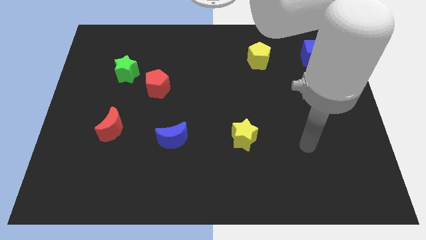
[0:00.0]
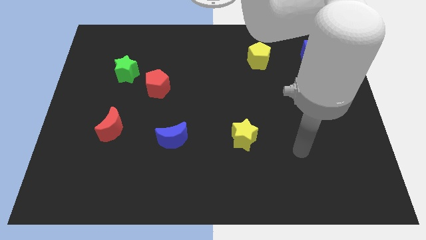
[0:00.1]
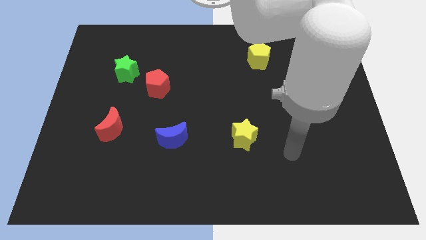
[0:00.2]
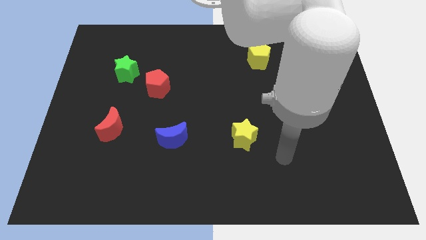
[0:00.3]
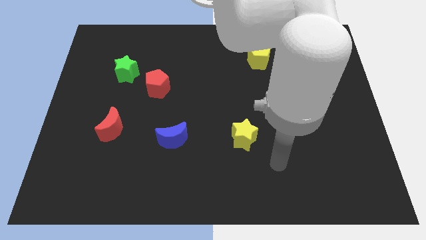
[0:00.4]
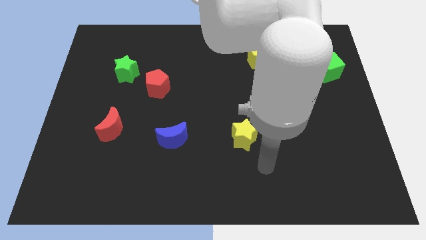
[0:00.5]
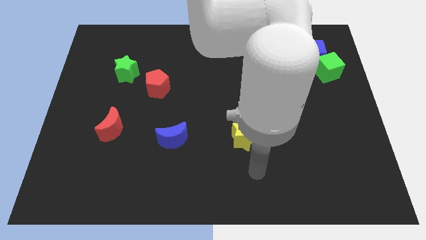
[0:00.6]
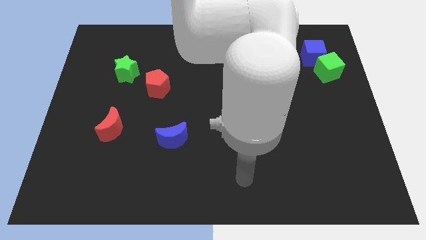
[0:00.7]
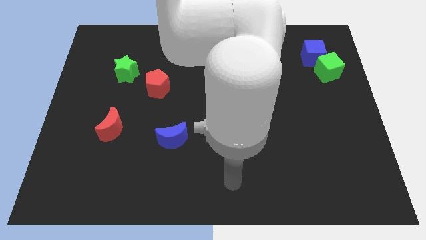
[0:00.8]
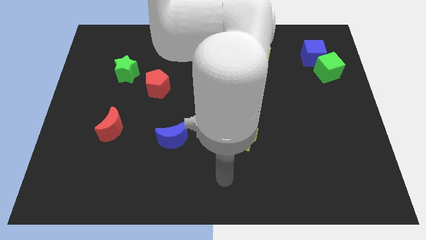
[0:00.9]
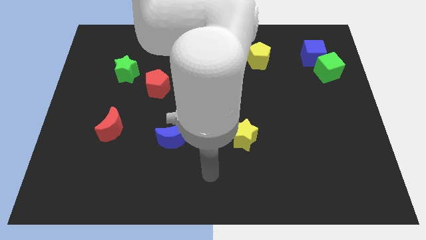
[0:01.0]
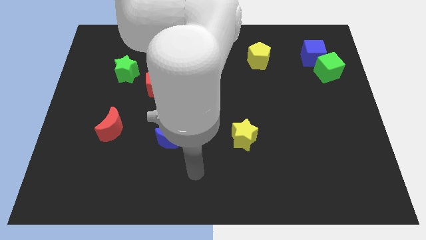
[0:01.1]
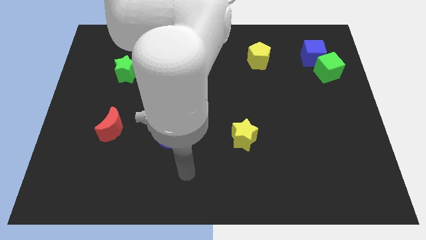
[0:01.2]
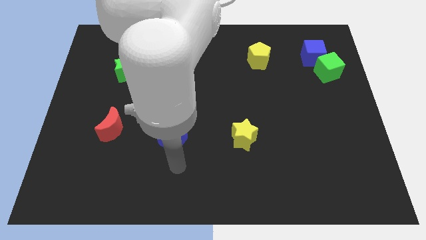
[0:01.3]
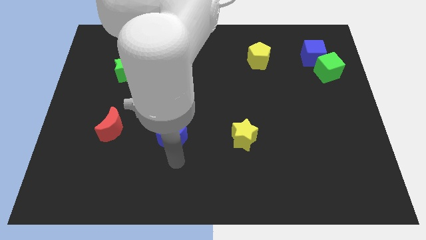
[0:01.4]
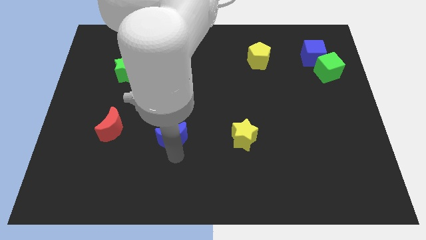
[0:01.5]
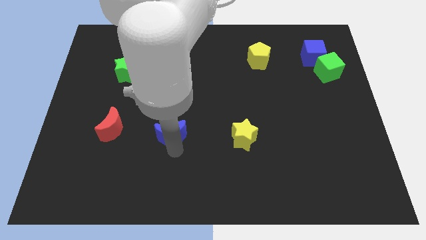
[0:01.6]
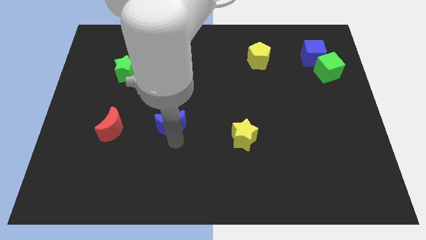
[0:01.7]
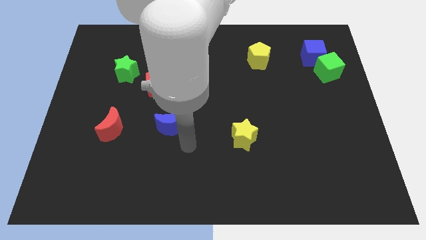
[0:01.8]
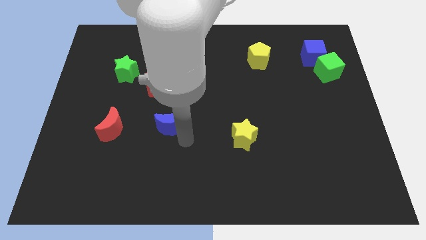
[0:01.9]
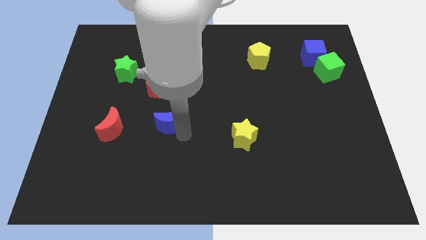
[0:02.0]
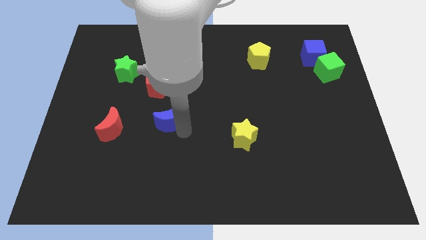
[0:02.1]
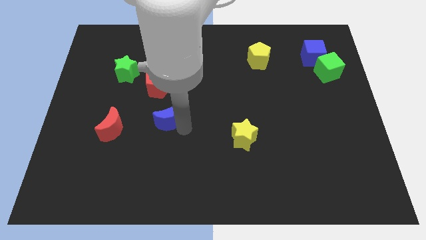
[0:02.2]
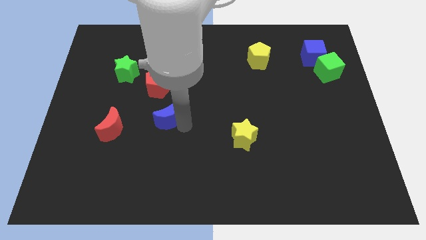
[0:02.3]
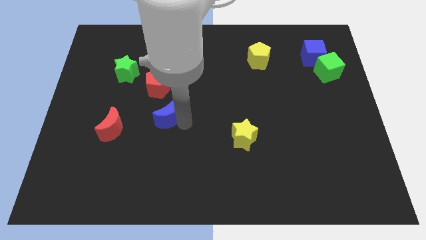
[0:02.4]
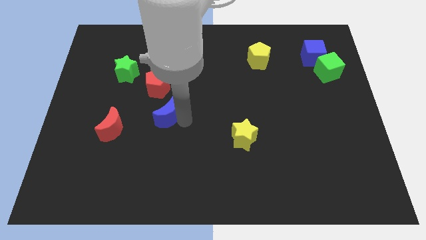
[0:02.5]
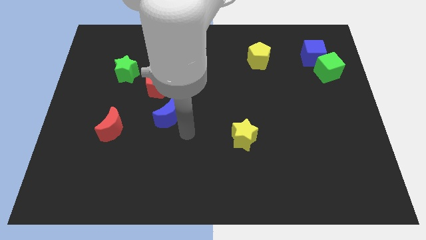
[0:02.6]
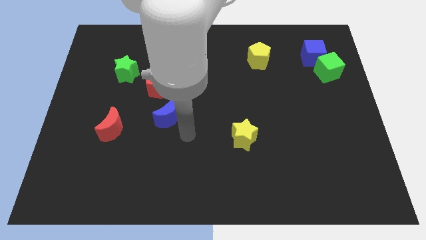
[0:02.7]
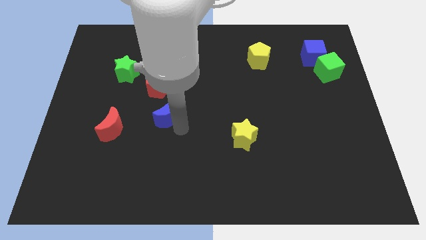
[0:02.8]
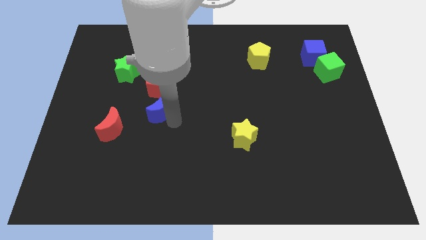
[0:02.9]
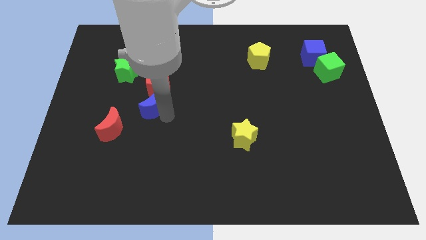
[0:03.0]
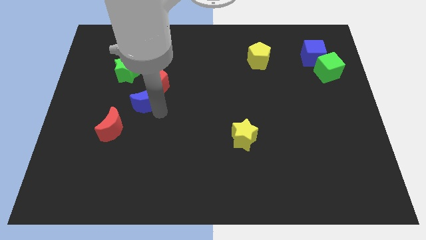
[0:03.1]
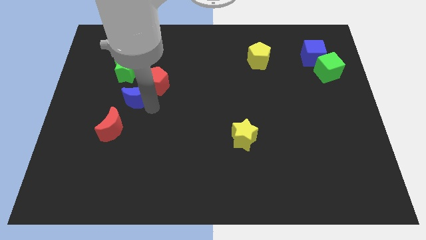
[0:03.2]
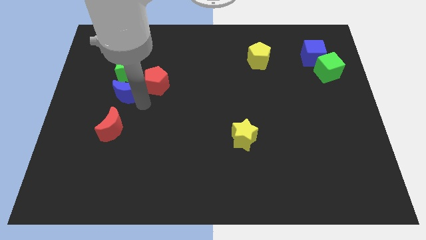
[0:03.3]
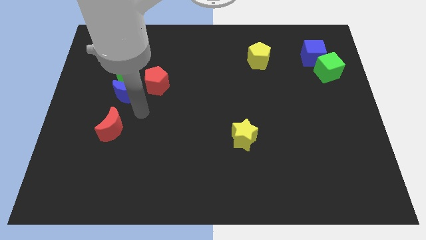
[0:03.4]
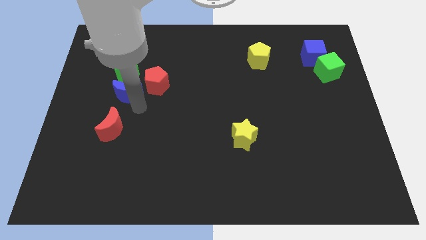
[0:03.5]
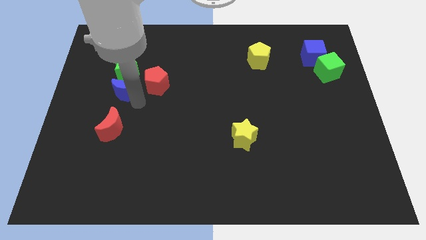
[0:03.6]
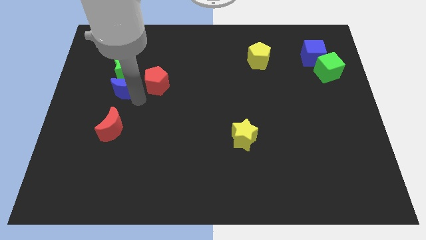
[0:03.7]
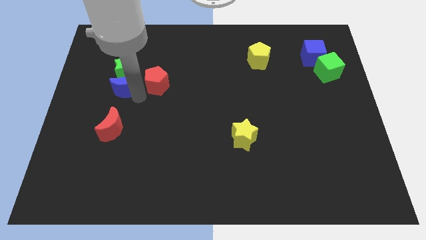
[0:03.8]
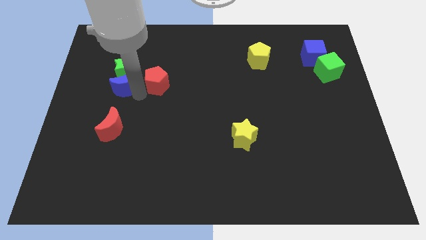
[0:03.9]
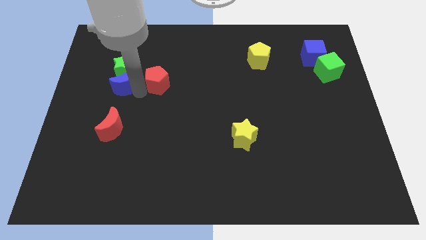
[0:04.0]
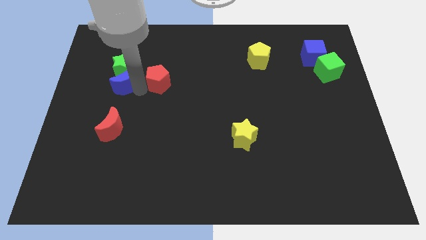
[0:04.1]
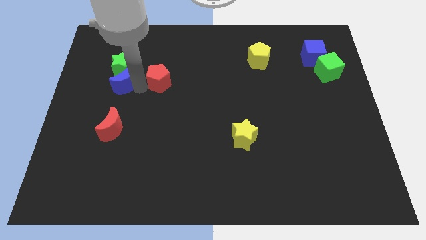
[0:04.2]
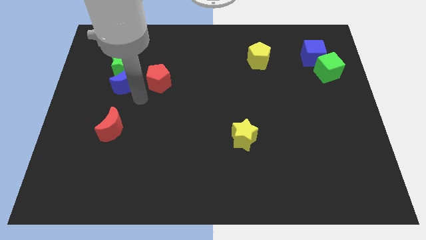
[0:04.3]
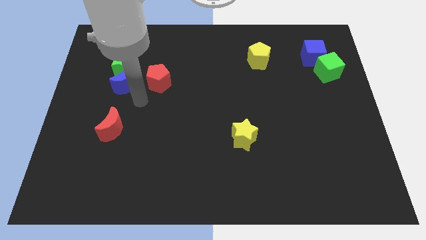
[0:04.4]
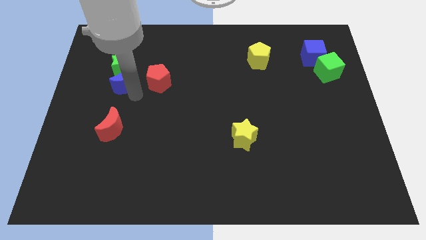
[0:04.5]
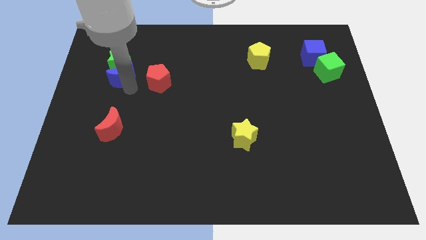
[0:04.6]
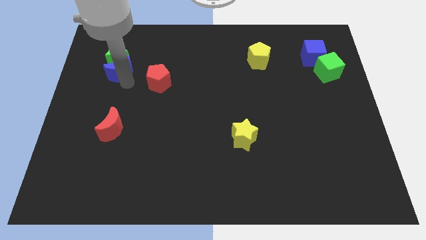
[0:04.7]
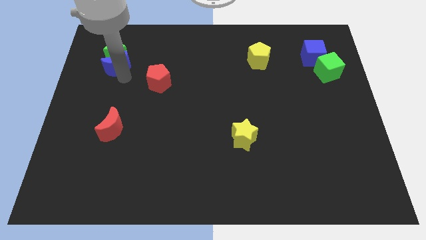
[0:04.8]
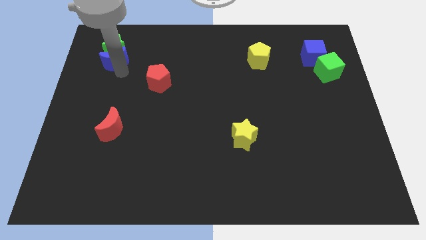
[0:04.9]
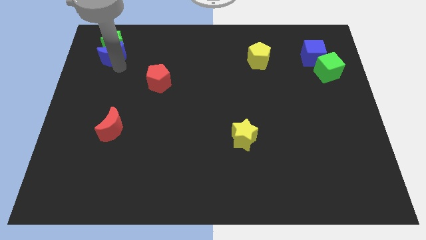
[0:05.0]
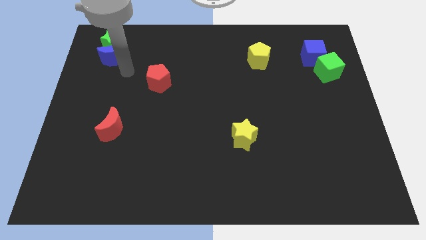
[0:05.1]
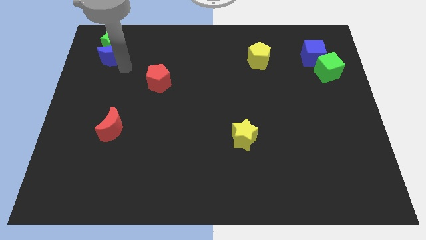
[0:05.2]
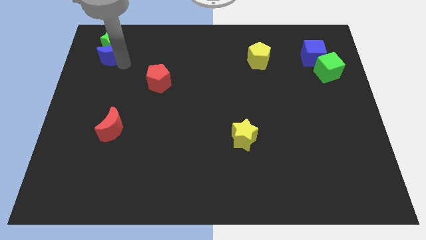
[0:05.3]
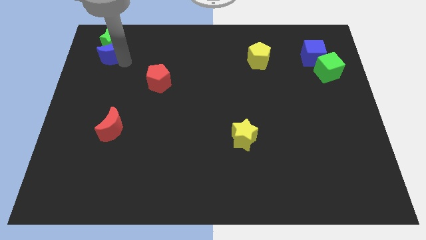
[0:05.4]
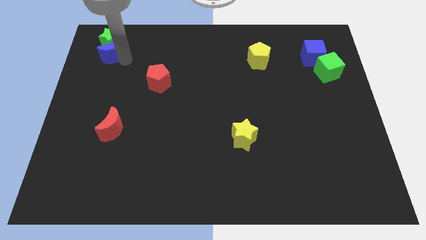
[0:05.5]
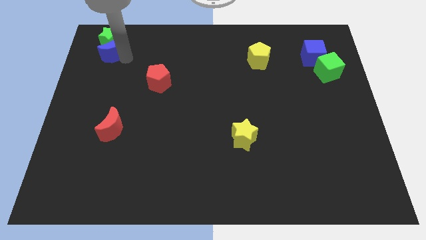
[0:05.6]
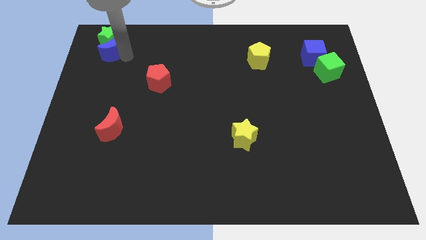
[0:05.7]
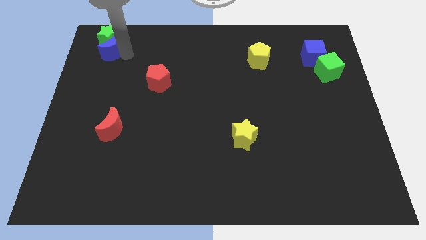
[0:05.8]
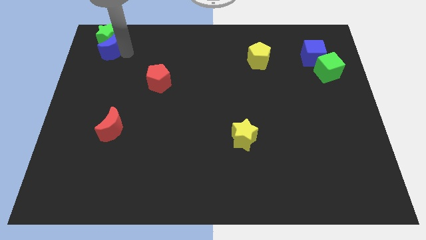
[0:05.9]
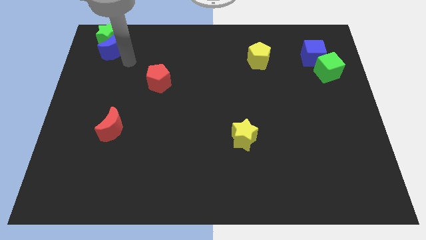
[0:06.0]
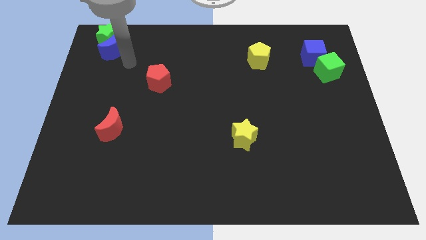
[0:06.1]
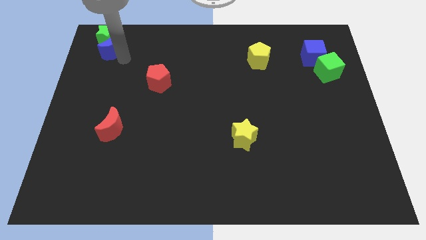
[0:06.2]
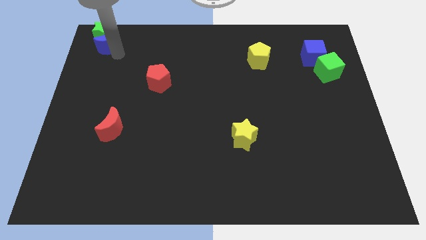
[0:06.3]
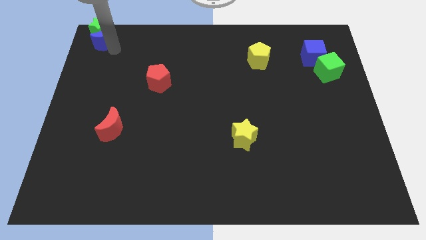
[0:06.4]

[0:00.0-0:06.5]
put the blue moon to the top left corner
